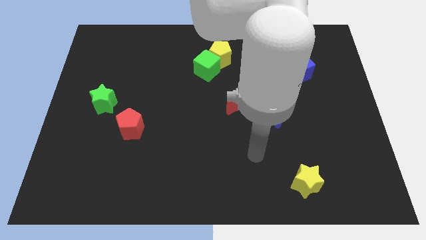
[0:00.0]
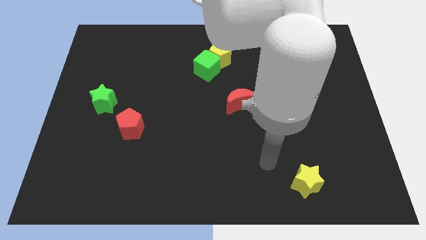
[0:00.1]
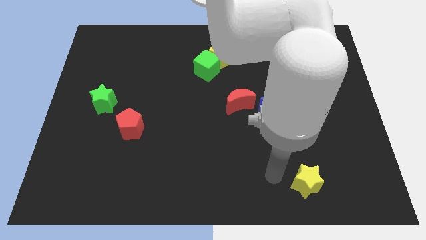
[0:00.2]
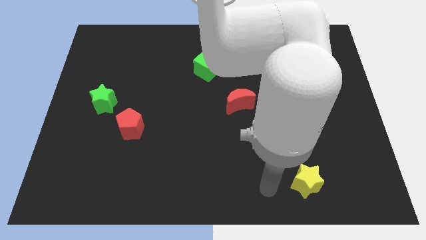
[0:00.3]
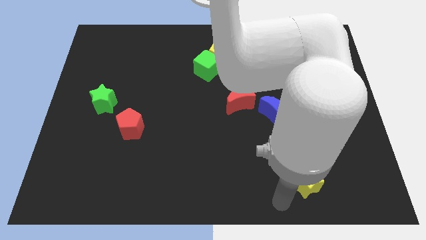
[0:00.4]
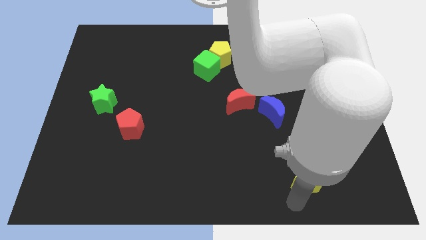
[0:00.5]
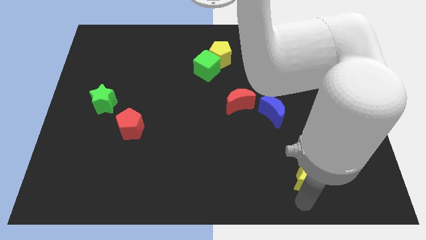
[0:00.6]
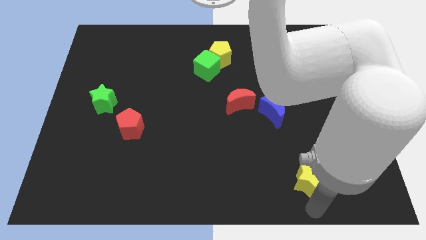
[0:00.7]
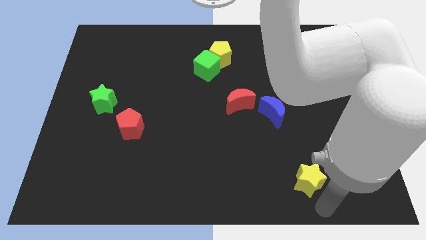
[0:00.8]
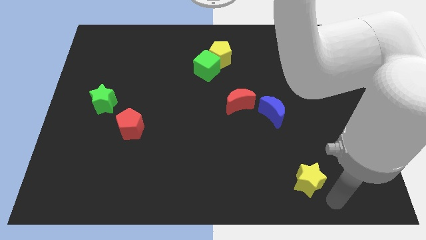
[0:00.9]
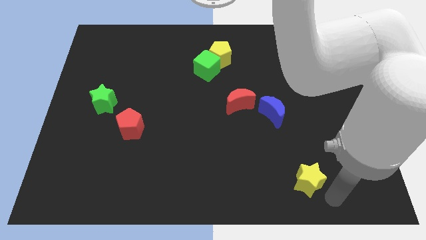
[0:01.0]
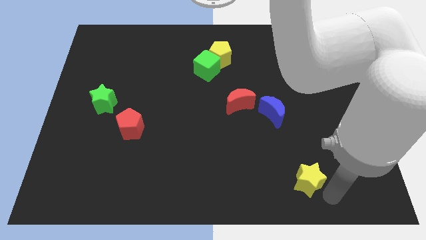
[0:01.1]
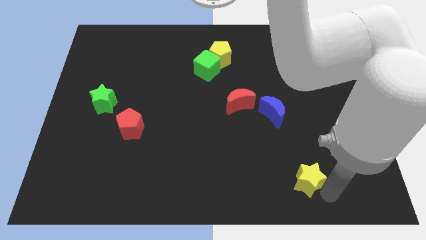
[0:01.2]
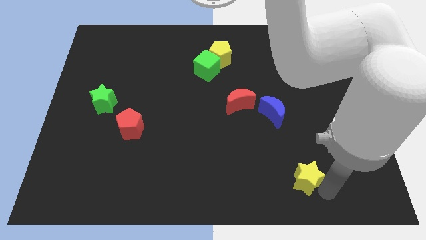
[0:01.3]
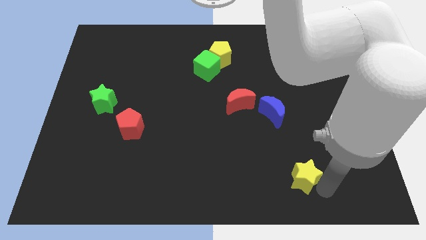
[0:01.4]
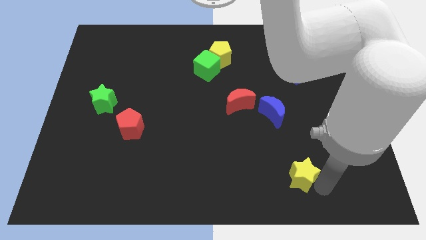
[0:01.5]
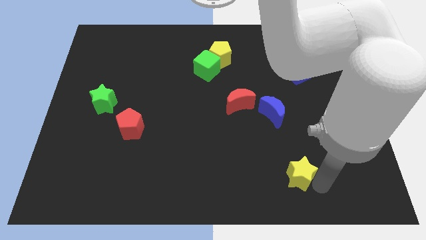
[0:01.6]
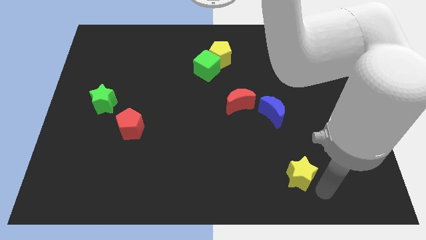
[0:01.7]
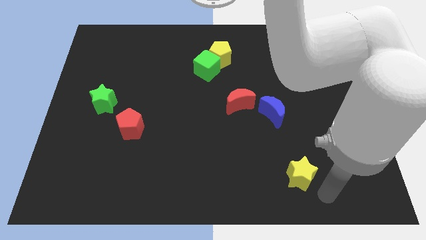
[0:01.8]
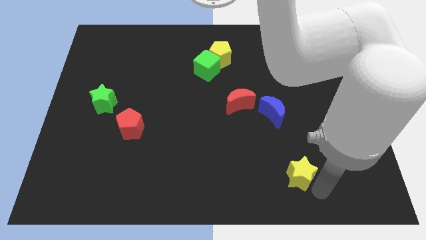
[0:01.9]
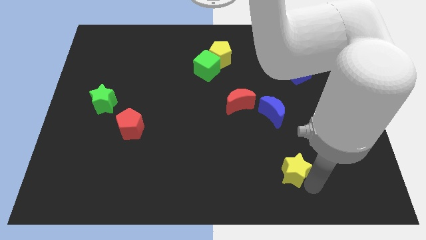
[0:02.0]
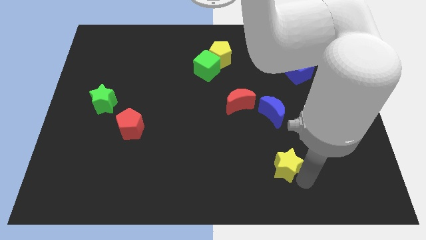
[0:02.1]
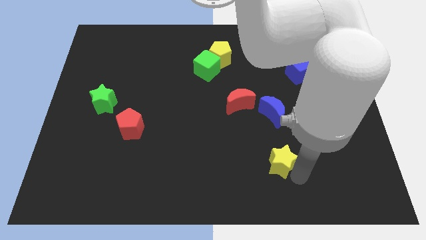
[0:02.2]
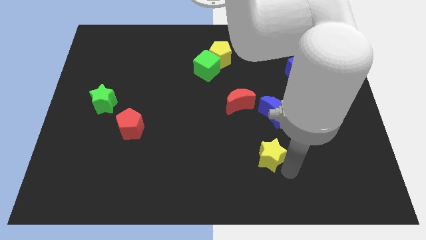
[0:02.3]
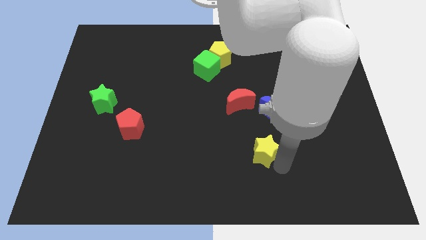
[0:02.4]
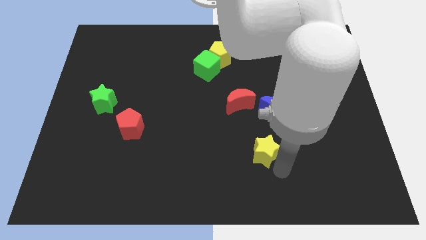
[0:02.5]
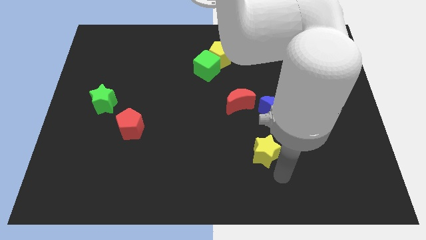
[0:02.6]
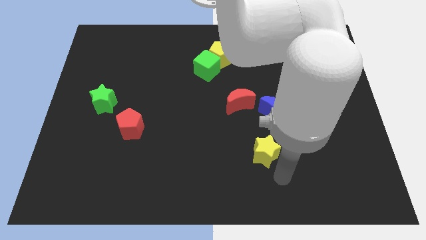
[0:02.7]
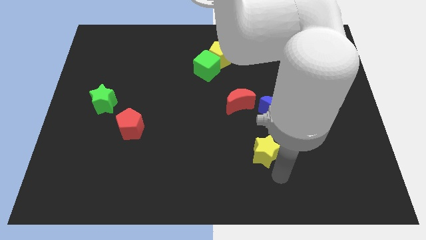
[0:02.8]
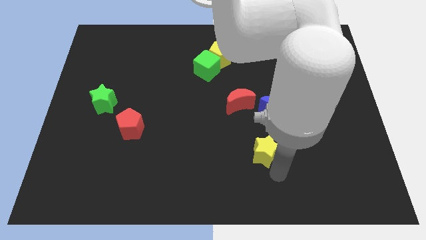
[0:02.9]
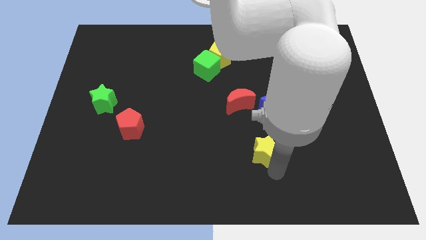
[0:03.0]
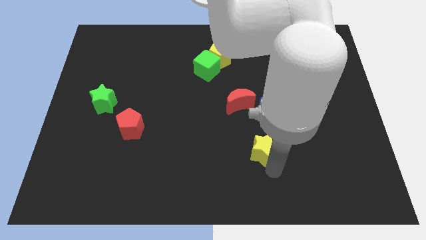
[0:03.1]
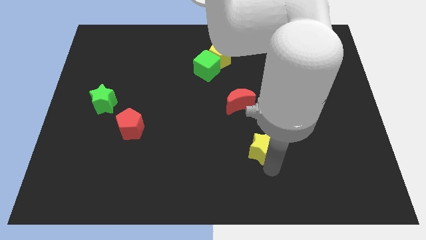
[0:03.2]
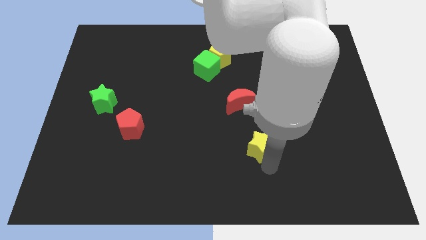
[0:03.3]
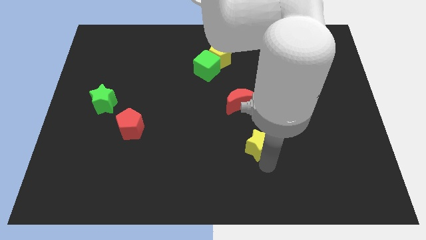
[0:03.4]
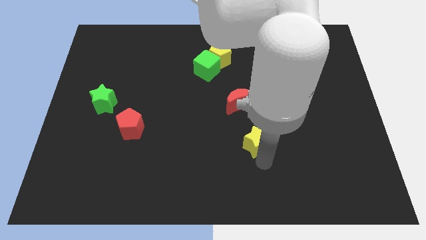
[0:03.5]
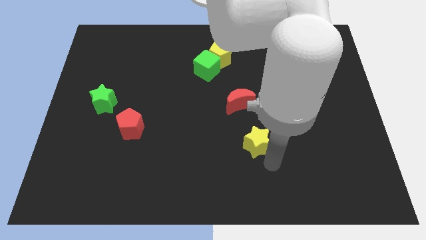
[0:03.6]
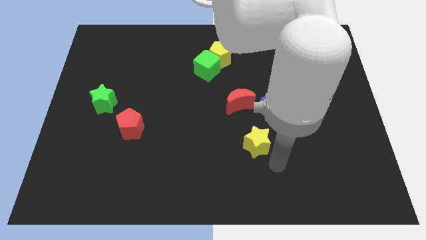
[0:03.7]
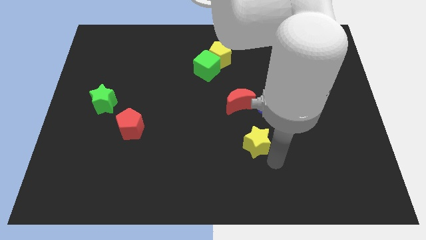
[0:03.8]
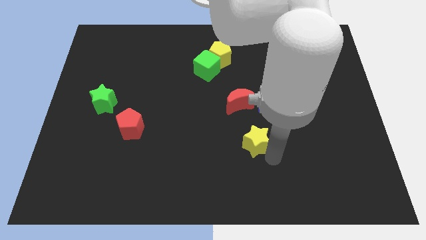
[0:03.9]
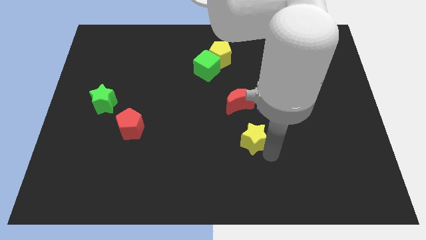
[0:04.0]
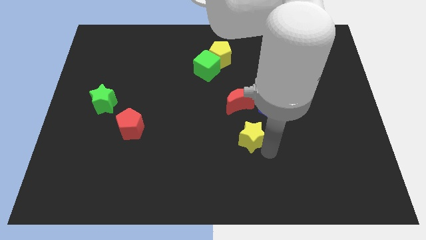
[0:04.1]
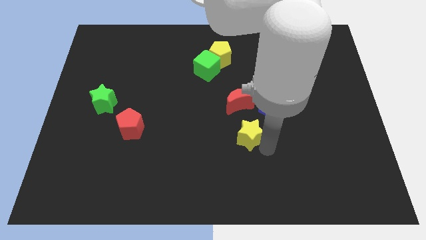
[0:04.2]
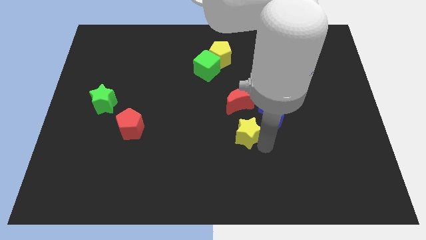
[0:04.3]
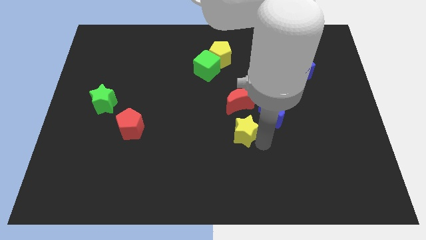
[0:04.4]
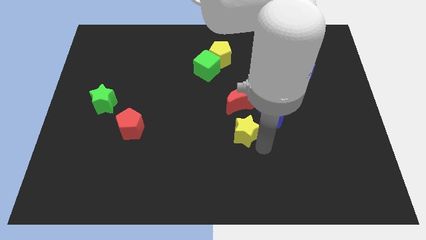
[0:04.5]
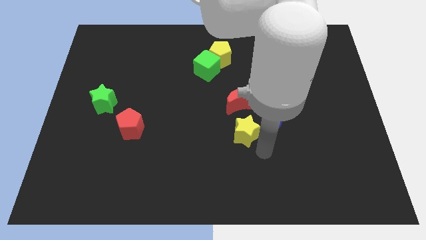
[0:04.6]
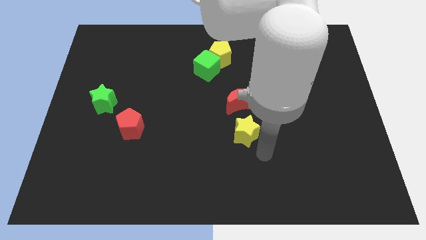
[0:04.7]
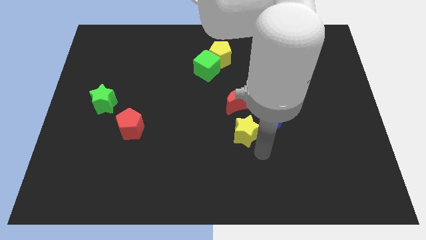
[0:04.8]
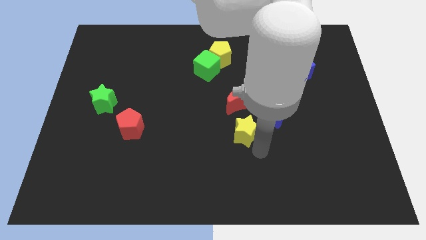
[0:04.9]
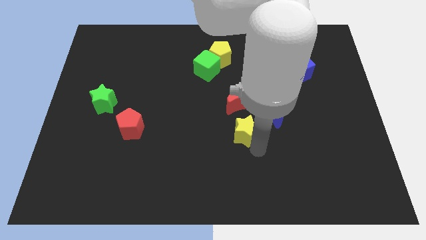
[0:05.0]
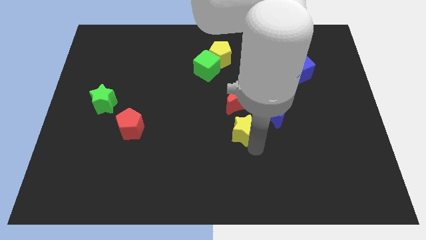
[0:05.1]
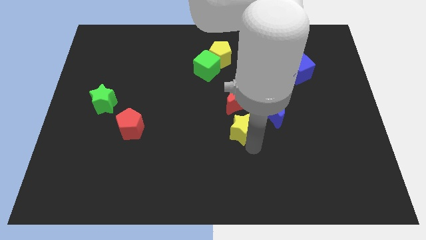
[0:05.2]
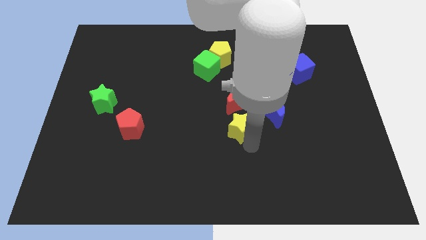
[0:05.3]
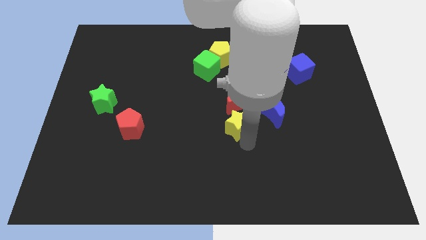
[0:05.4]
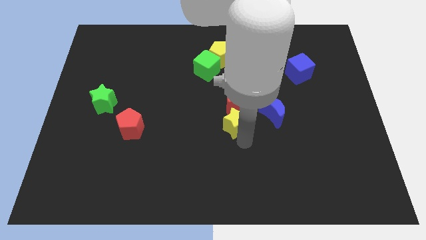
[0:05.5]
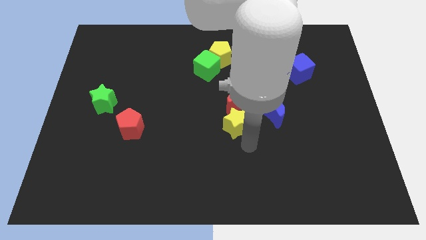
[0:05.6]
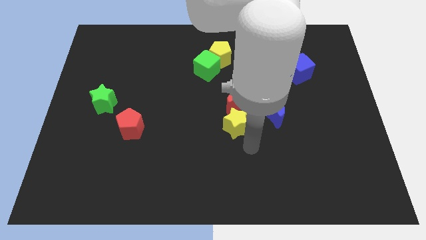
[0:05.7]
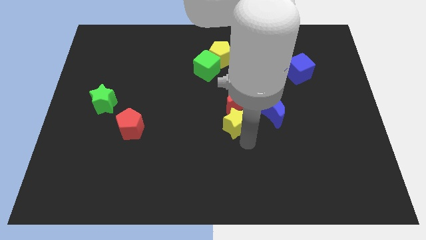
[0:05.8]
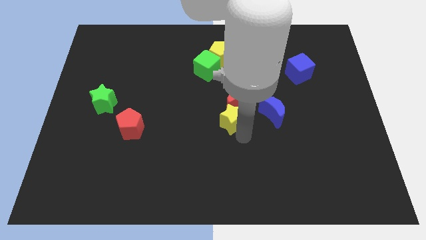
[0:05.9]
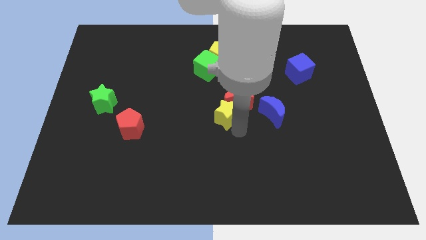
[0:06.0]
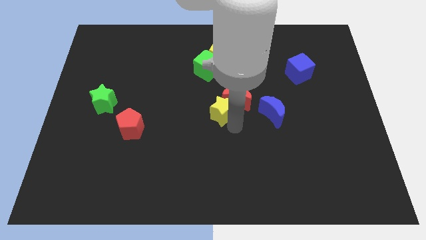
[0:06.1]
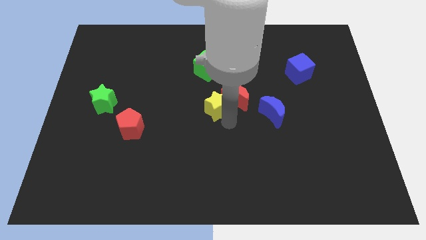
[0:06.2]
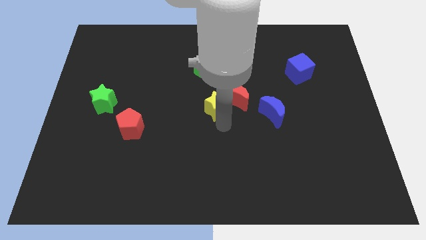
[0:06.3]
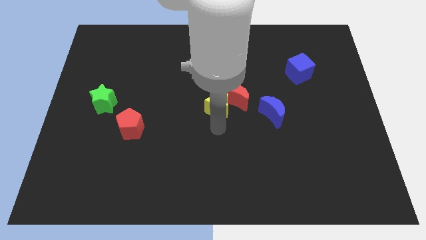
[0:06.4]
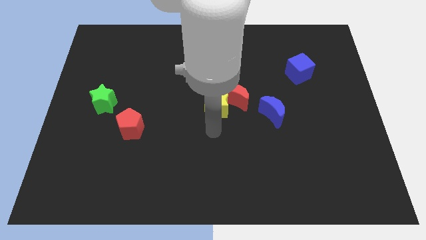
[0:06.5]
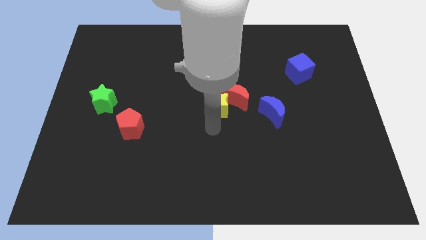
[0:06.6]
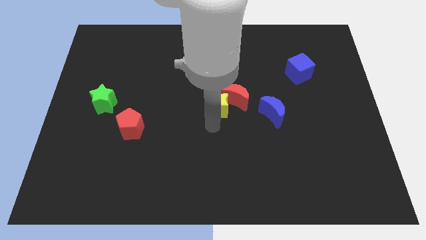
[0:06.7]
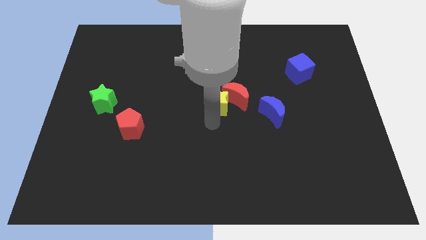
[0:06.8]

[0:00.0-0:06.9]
push the yellow star to the bottom side of the yellow pentagon

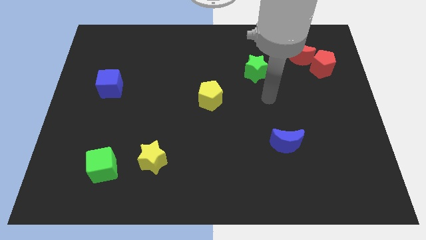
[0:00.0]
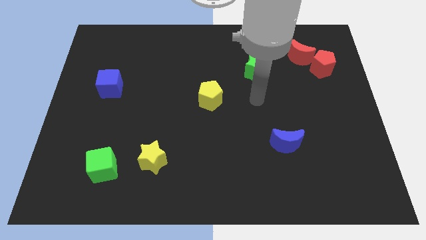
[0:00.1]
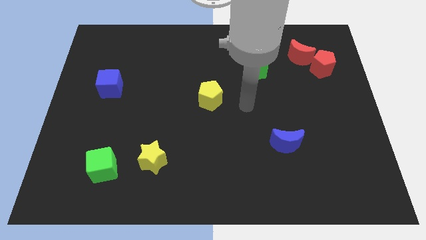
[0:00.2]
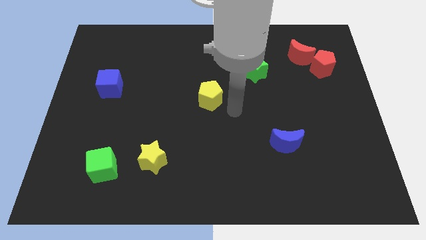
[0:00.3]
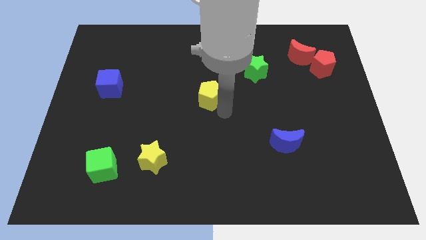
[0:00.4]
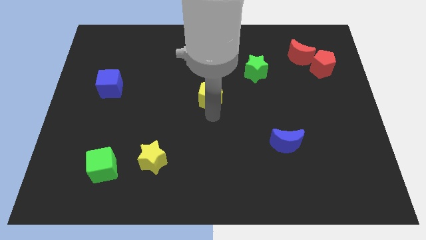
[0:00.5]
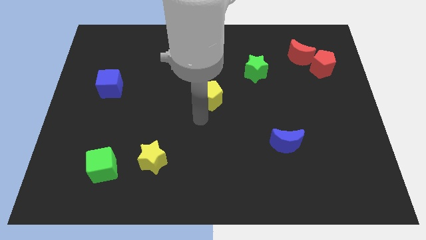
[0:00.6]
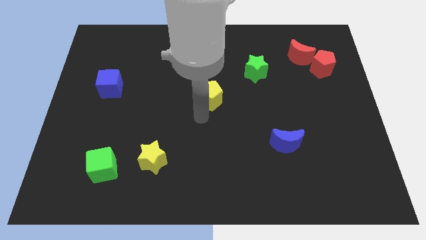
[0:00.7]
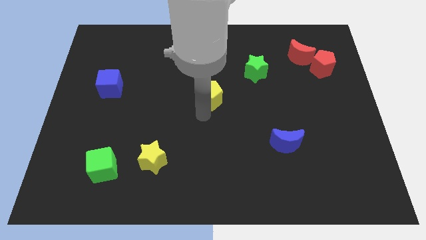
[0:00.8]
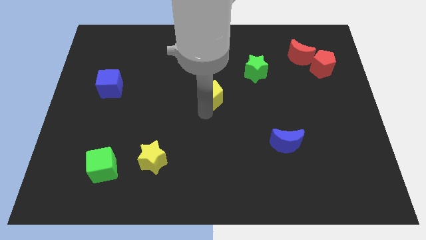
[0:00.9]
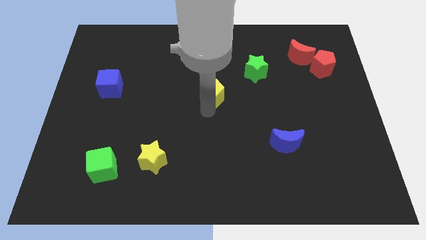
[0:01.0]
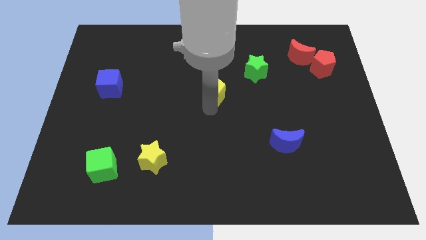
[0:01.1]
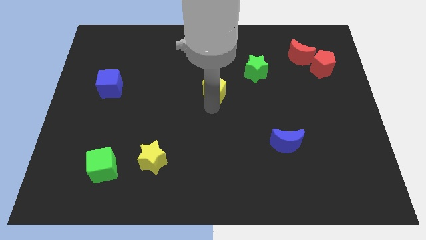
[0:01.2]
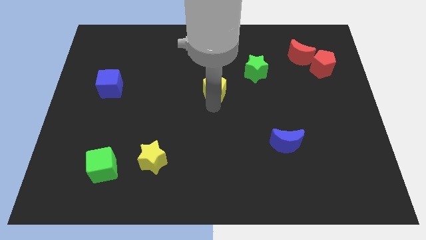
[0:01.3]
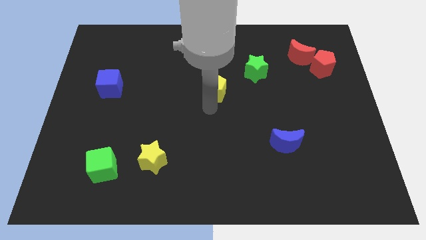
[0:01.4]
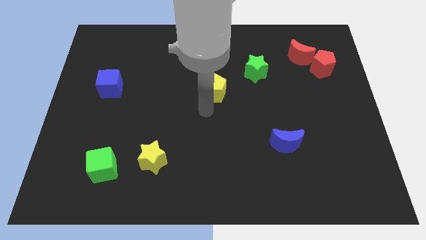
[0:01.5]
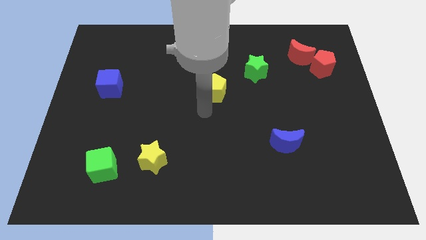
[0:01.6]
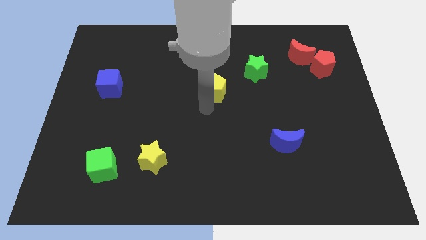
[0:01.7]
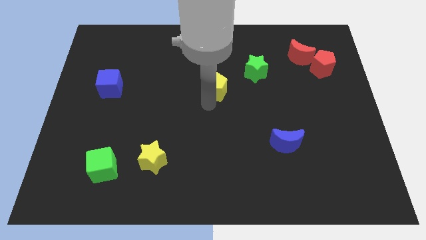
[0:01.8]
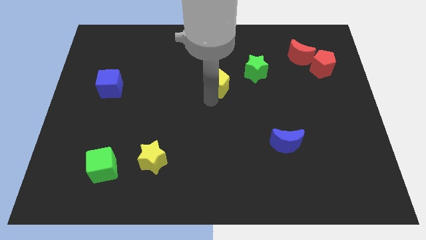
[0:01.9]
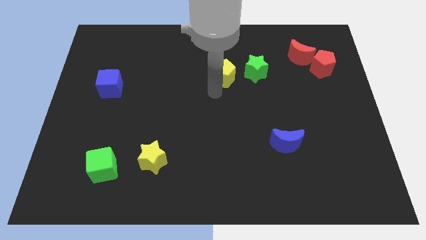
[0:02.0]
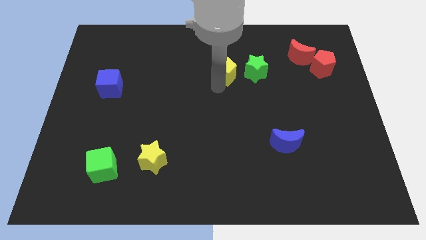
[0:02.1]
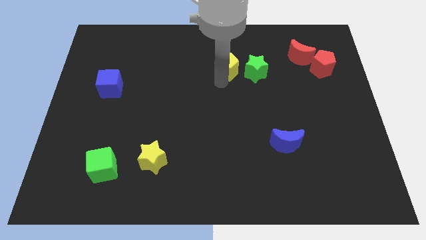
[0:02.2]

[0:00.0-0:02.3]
push the yellow pentagon to the top left of the green star
